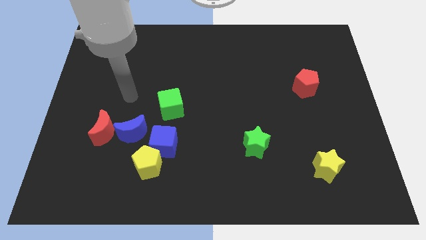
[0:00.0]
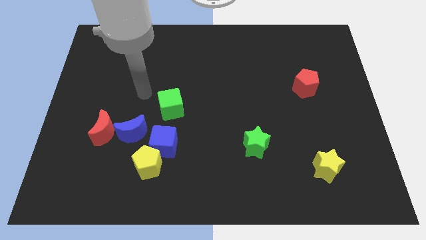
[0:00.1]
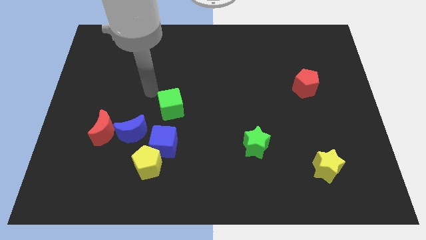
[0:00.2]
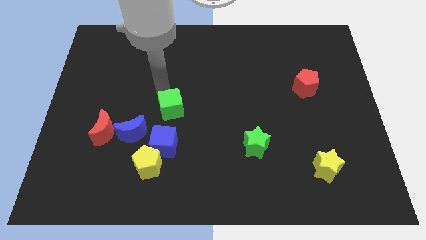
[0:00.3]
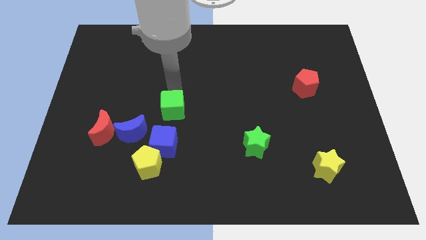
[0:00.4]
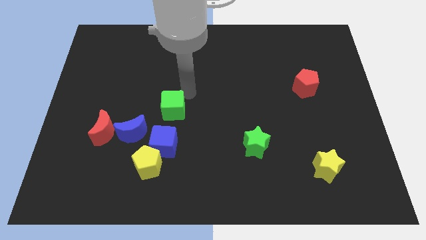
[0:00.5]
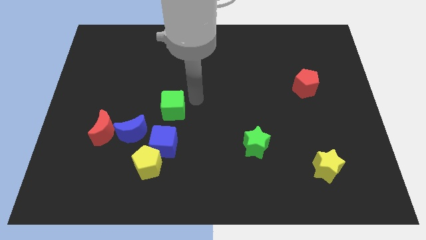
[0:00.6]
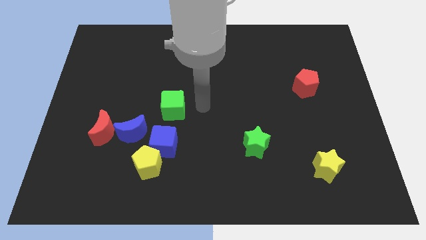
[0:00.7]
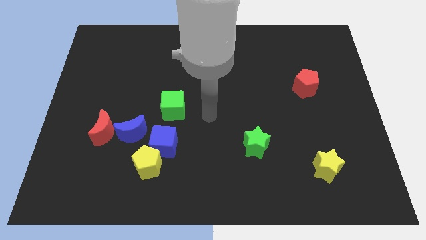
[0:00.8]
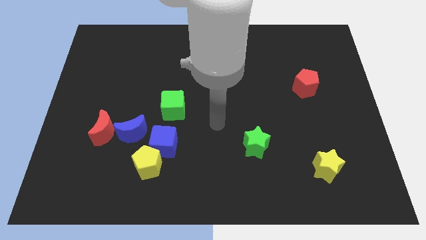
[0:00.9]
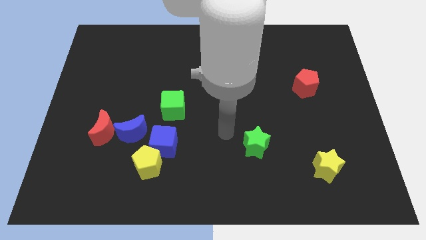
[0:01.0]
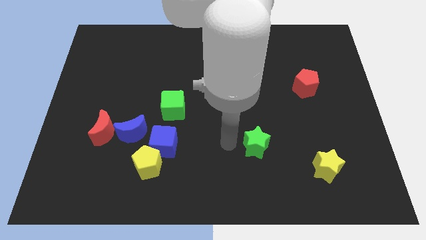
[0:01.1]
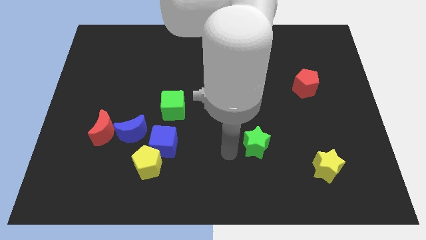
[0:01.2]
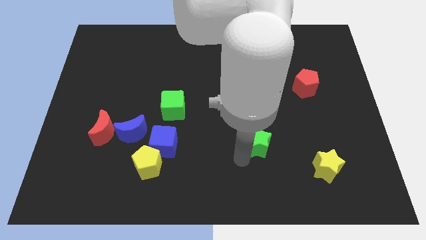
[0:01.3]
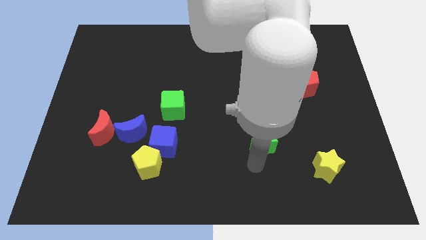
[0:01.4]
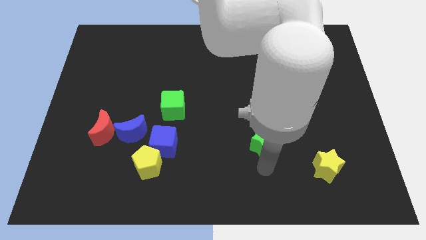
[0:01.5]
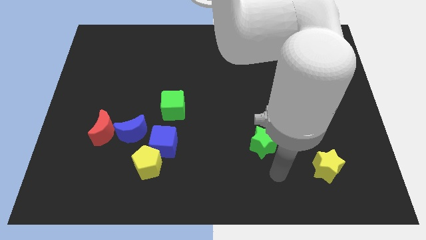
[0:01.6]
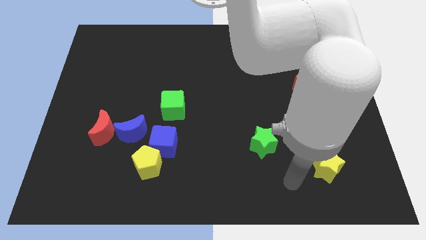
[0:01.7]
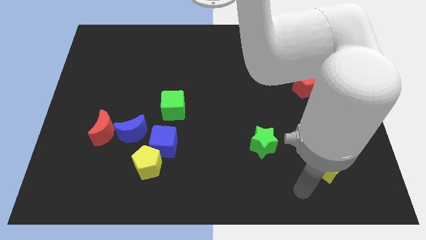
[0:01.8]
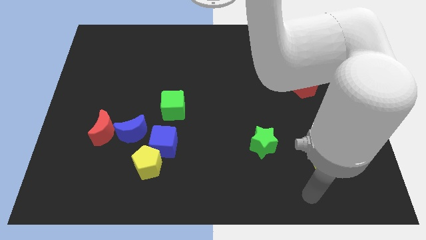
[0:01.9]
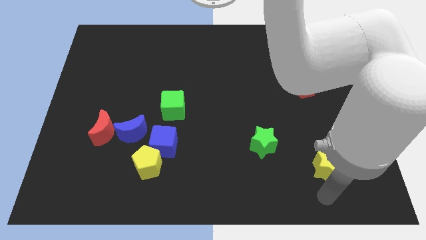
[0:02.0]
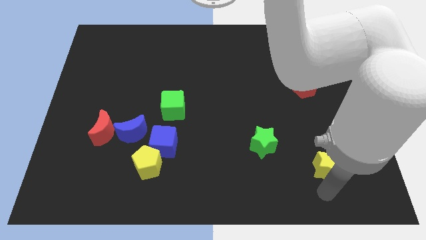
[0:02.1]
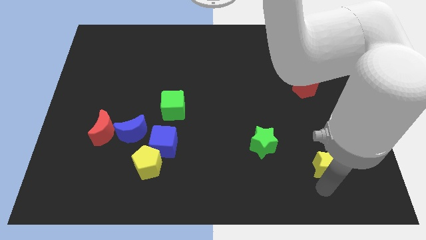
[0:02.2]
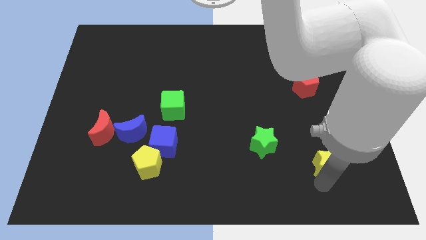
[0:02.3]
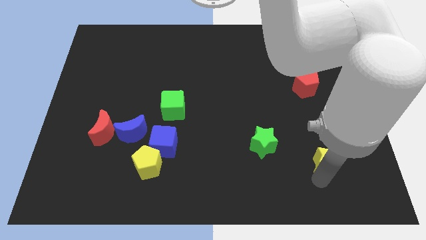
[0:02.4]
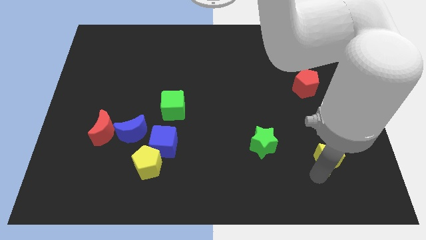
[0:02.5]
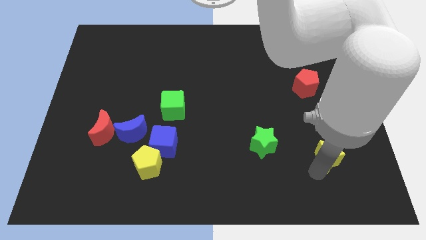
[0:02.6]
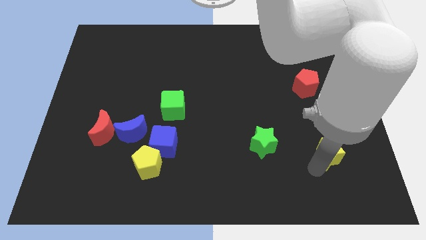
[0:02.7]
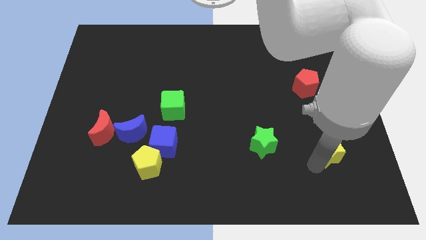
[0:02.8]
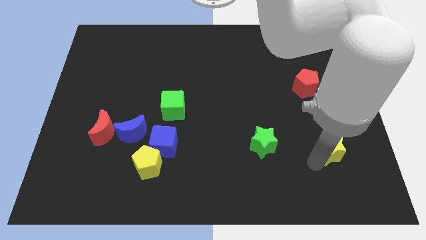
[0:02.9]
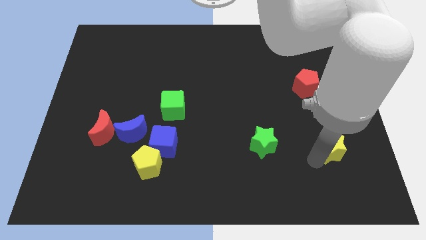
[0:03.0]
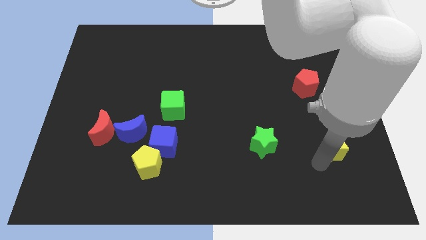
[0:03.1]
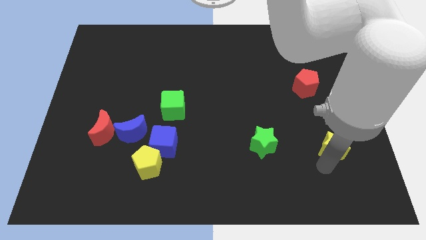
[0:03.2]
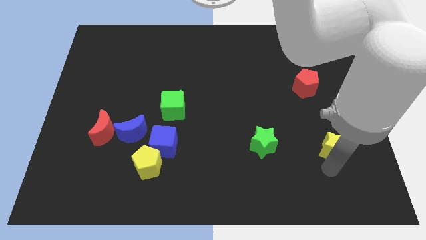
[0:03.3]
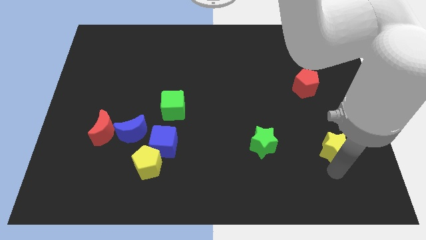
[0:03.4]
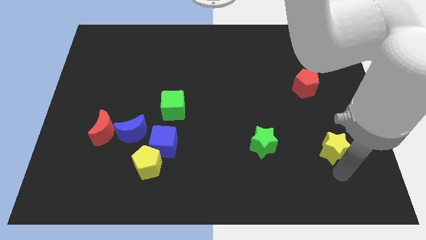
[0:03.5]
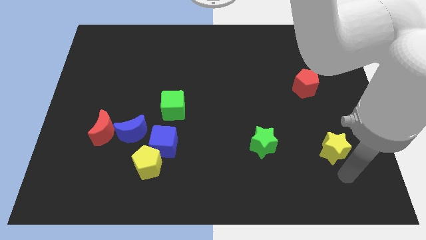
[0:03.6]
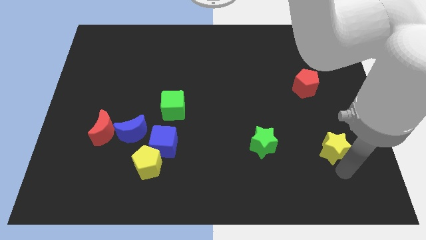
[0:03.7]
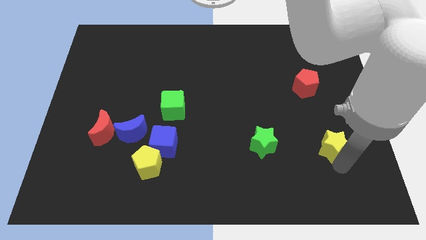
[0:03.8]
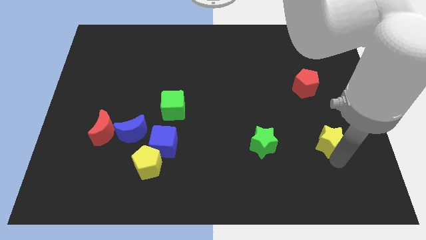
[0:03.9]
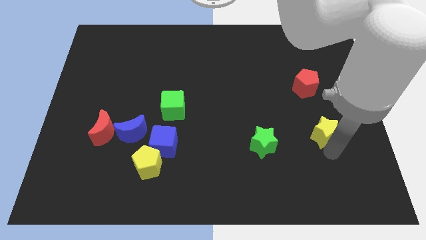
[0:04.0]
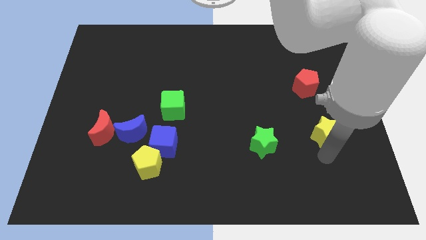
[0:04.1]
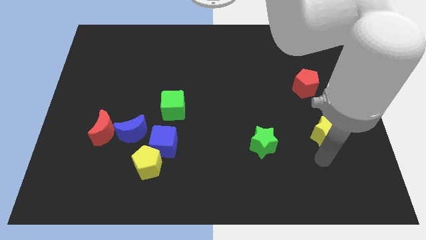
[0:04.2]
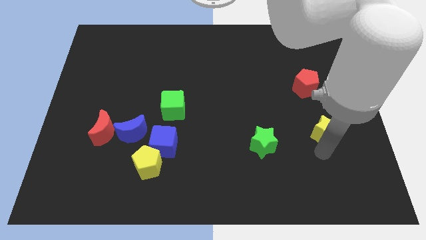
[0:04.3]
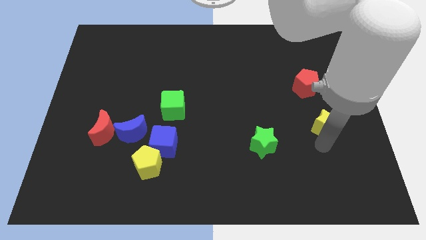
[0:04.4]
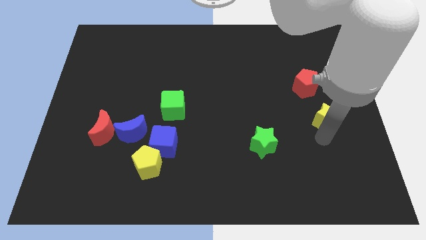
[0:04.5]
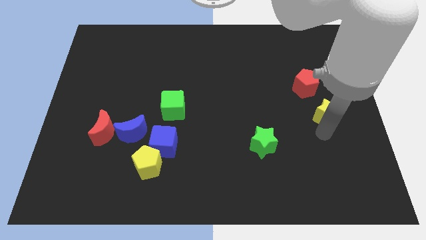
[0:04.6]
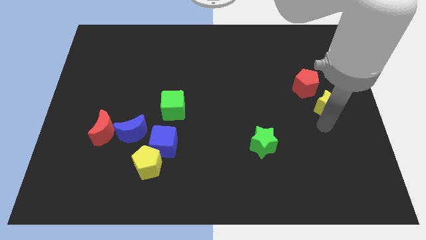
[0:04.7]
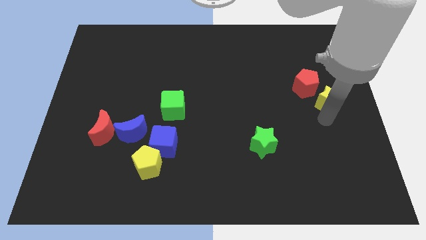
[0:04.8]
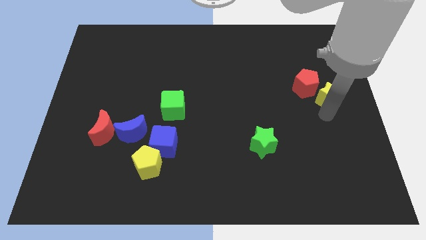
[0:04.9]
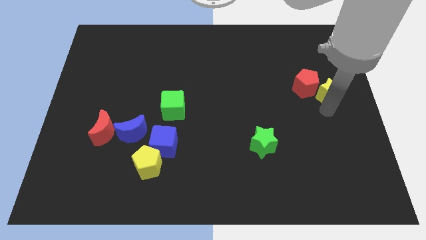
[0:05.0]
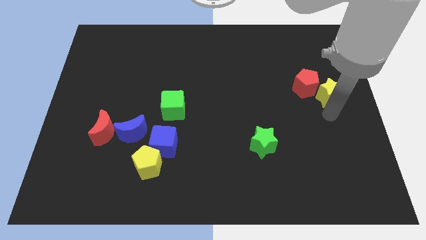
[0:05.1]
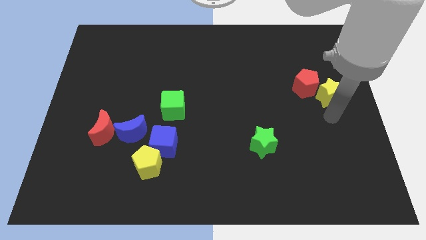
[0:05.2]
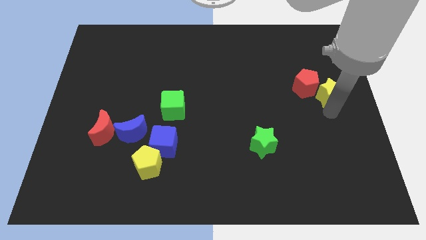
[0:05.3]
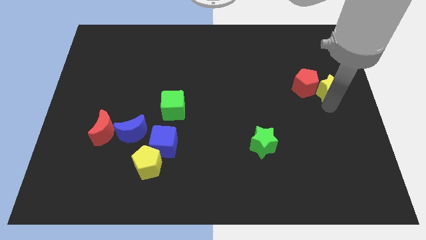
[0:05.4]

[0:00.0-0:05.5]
move the yellow star upwards

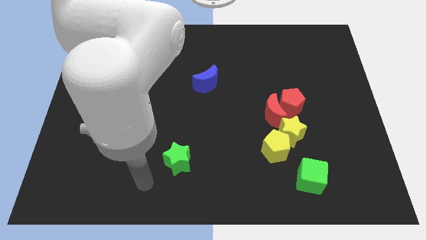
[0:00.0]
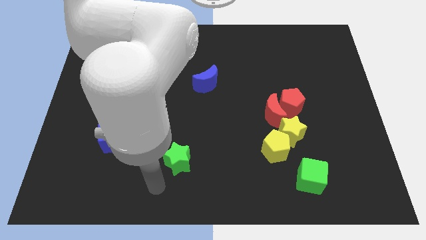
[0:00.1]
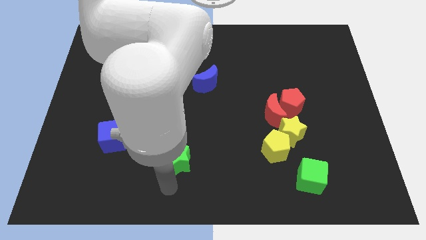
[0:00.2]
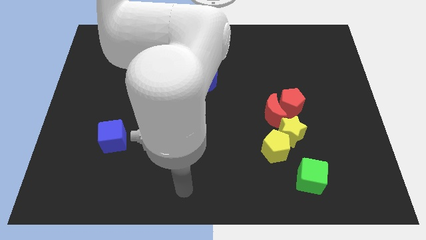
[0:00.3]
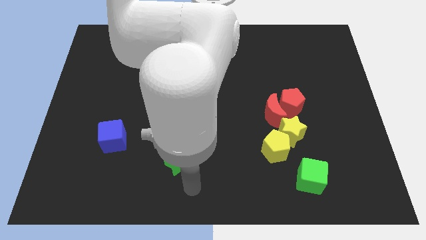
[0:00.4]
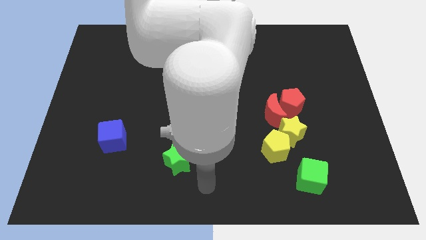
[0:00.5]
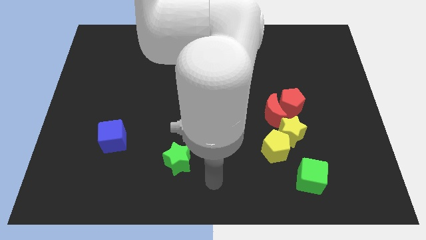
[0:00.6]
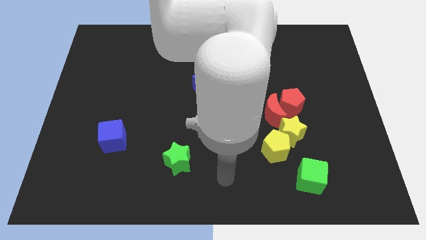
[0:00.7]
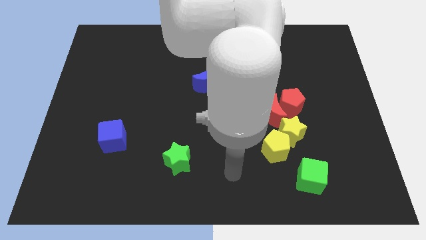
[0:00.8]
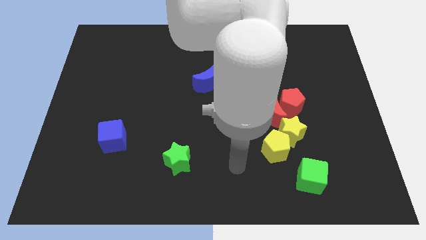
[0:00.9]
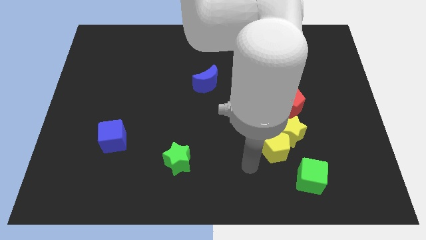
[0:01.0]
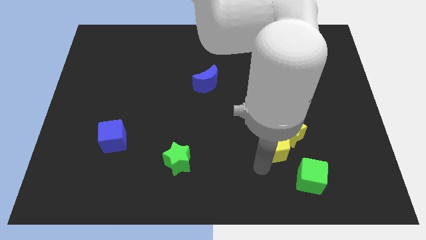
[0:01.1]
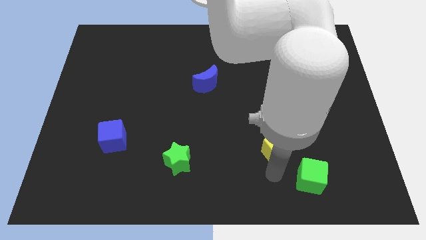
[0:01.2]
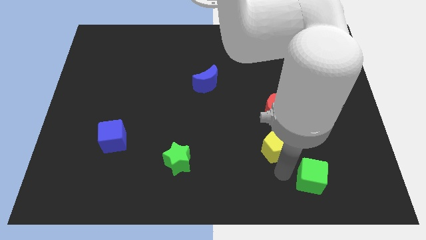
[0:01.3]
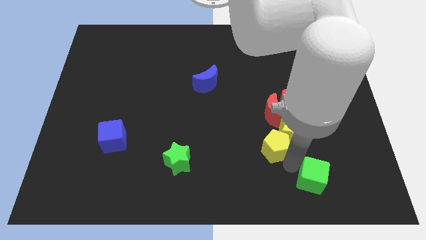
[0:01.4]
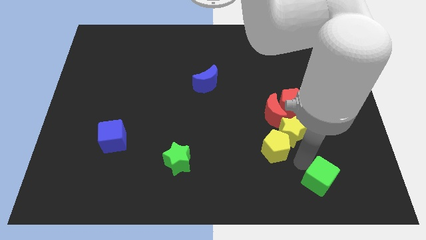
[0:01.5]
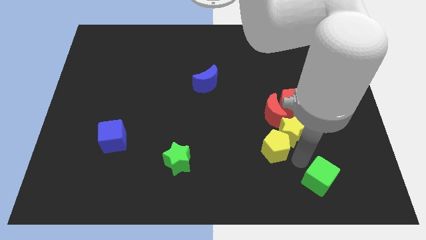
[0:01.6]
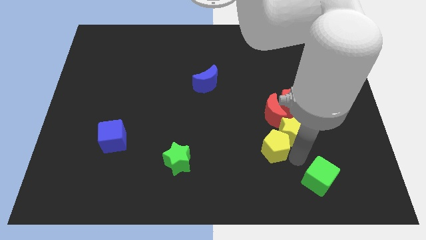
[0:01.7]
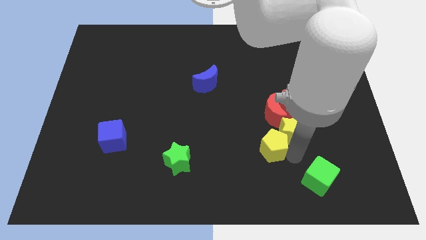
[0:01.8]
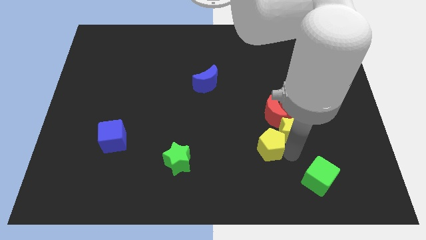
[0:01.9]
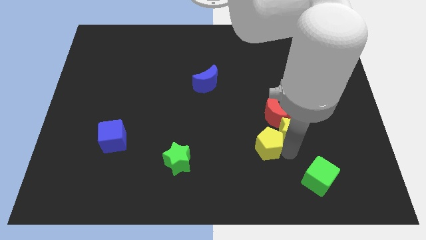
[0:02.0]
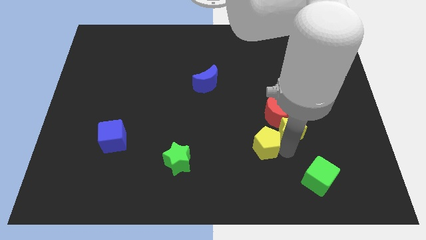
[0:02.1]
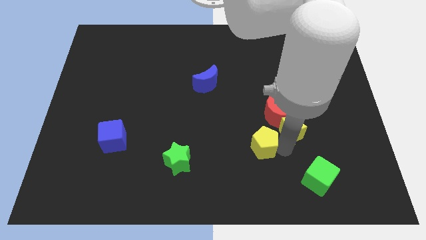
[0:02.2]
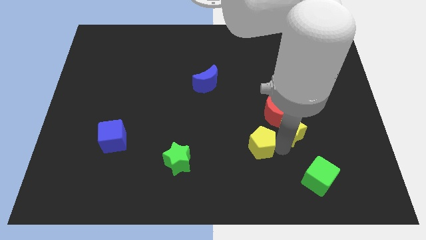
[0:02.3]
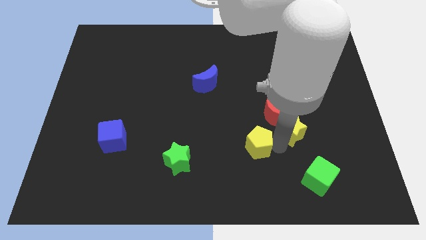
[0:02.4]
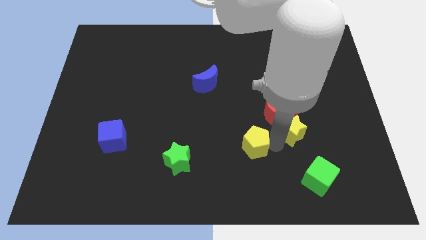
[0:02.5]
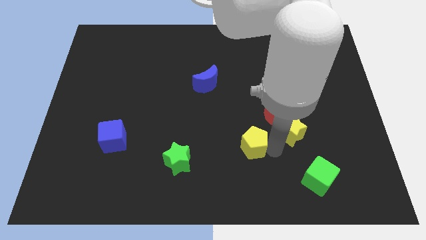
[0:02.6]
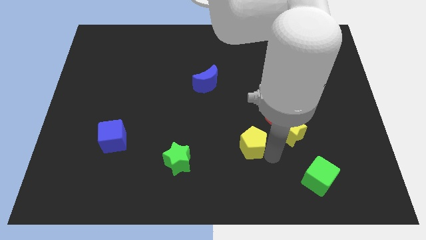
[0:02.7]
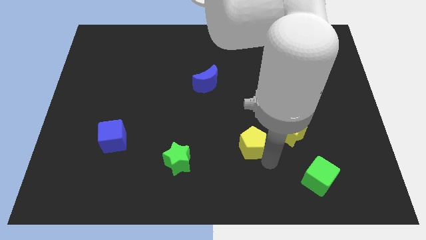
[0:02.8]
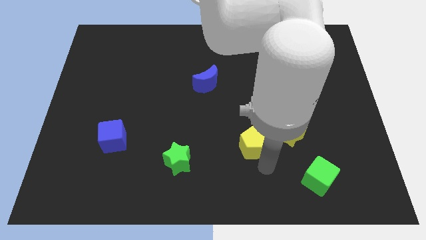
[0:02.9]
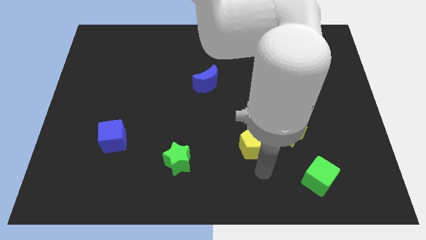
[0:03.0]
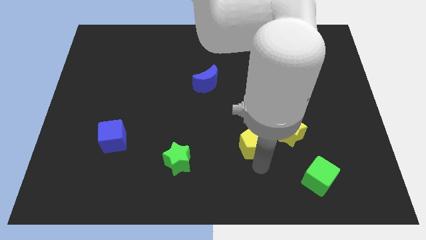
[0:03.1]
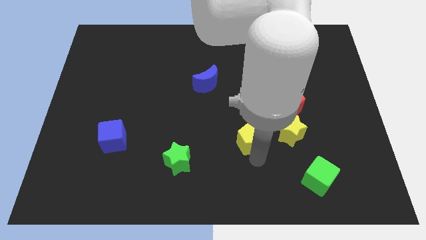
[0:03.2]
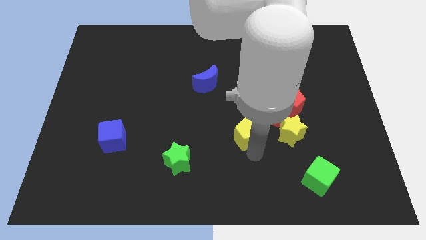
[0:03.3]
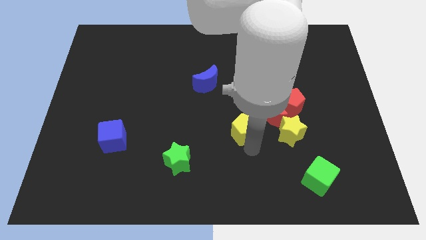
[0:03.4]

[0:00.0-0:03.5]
slightly push the yellow pentagon up and to the left
